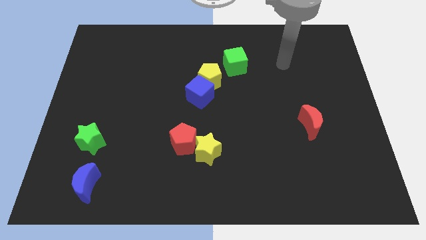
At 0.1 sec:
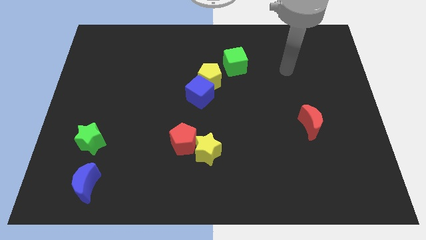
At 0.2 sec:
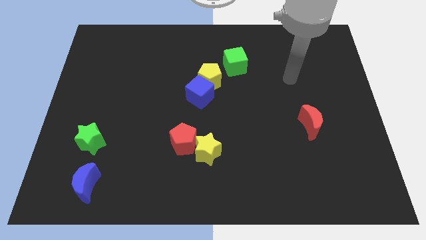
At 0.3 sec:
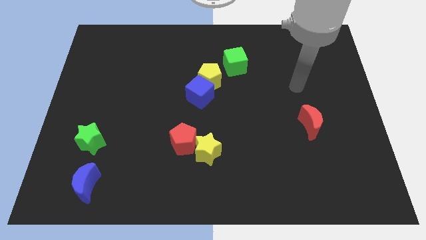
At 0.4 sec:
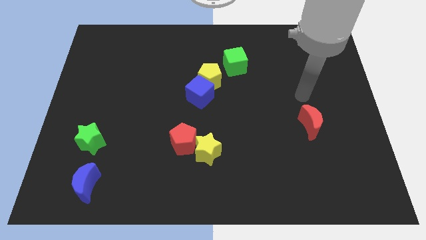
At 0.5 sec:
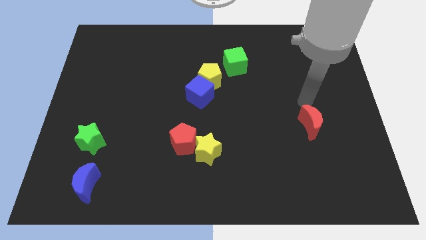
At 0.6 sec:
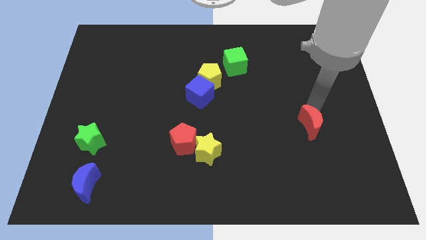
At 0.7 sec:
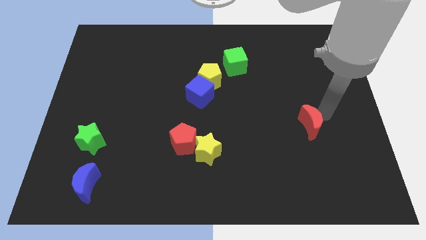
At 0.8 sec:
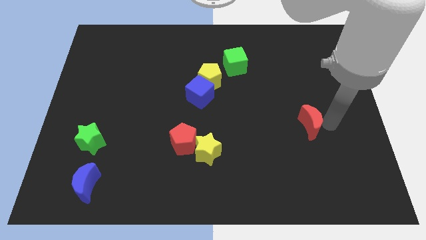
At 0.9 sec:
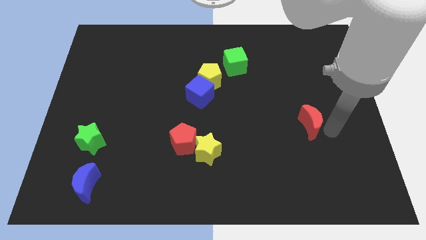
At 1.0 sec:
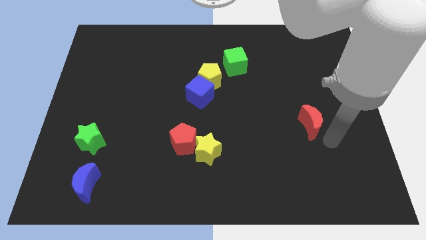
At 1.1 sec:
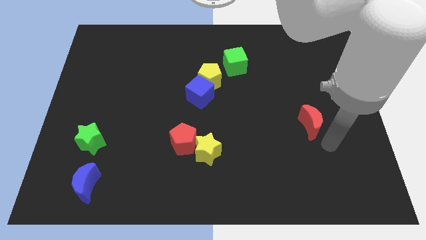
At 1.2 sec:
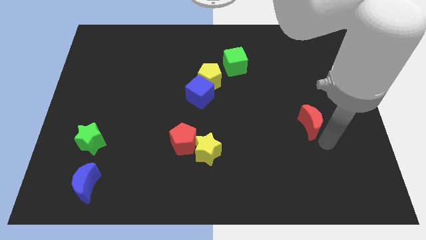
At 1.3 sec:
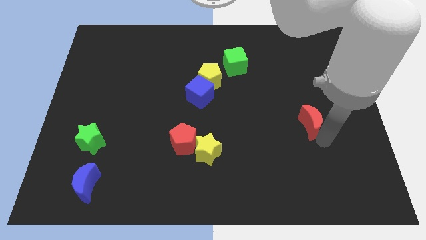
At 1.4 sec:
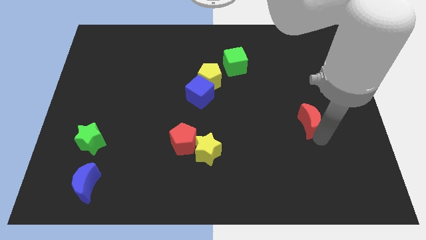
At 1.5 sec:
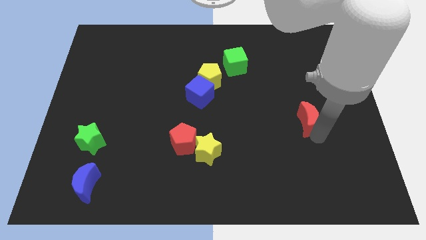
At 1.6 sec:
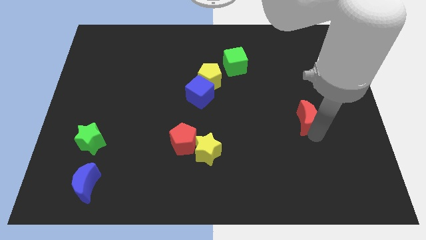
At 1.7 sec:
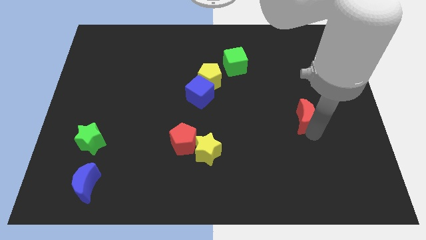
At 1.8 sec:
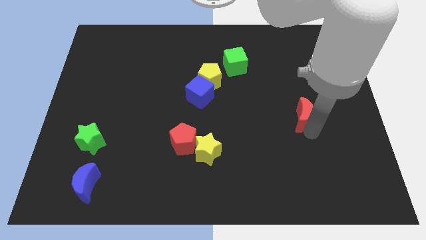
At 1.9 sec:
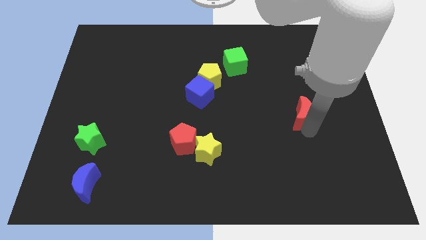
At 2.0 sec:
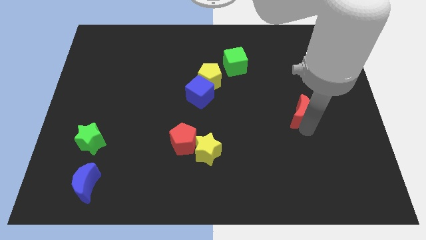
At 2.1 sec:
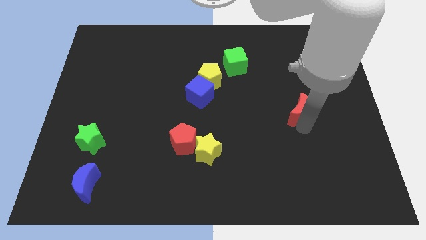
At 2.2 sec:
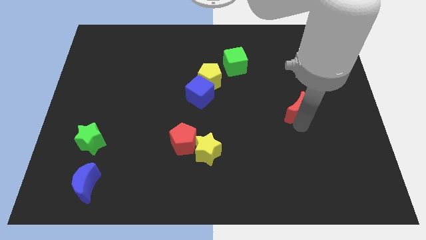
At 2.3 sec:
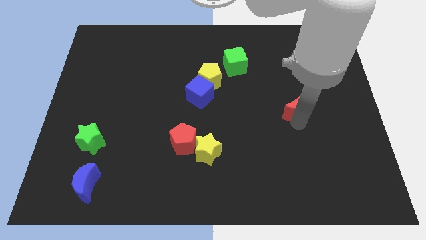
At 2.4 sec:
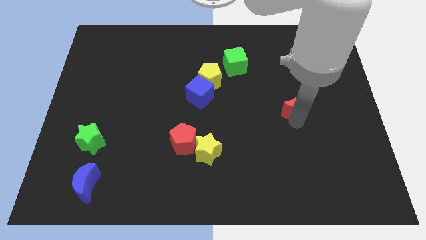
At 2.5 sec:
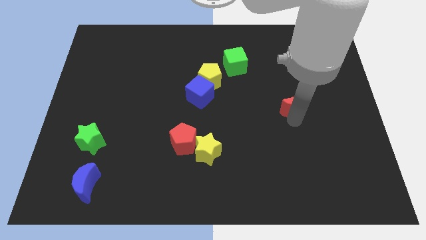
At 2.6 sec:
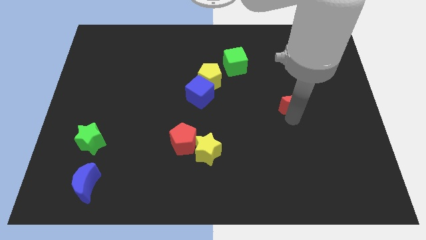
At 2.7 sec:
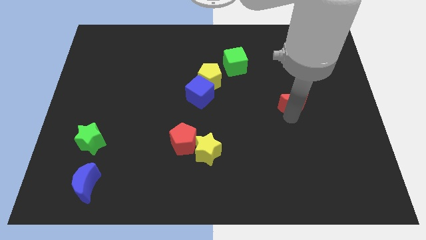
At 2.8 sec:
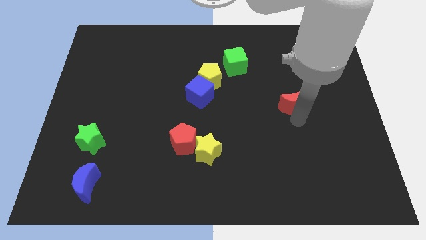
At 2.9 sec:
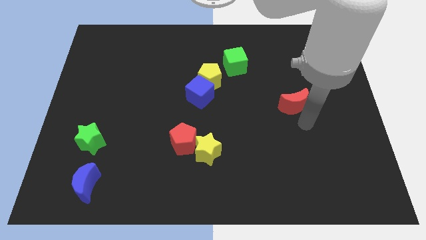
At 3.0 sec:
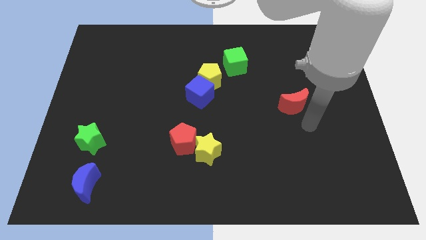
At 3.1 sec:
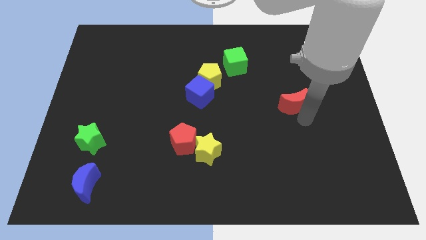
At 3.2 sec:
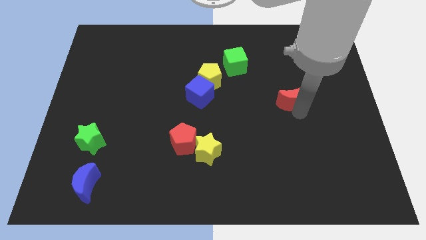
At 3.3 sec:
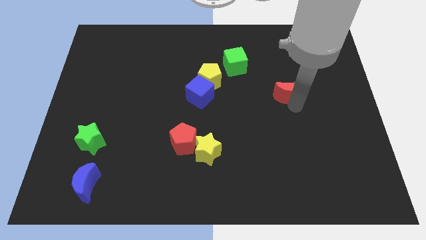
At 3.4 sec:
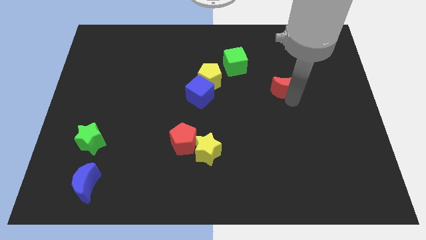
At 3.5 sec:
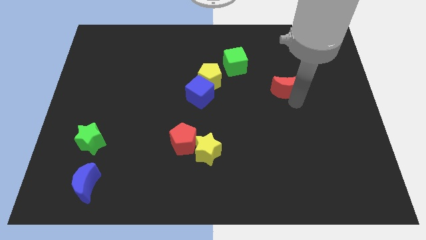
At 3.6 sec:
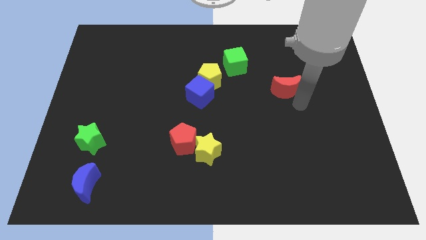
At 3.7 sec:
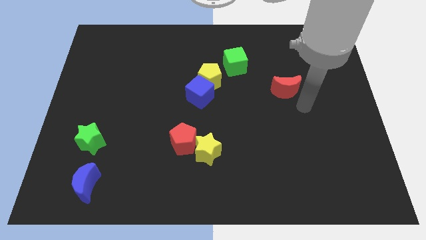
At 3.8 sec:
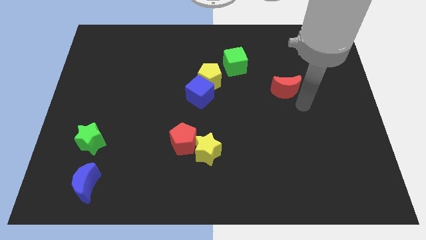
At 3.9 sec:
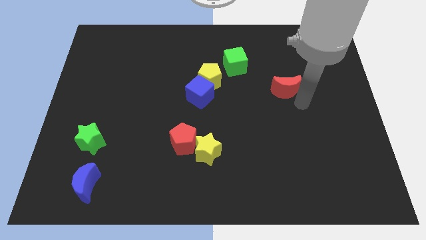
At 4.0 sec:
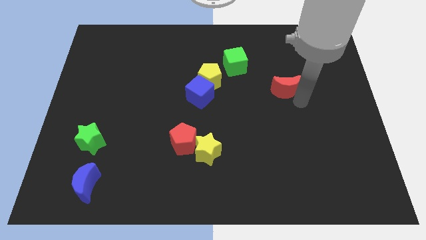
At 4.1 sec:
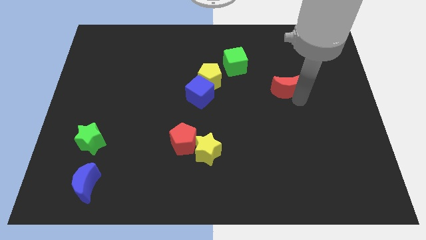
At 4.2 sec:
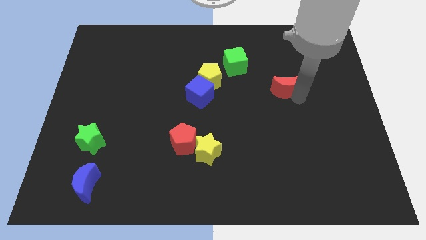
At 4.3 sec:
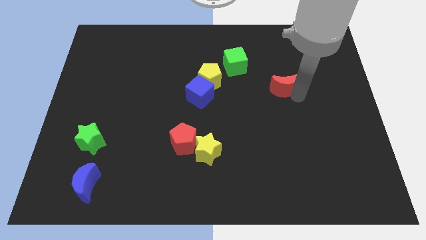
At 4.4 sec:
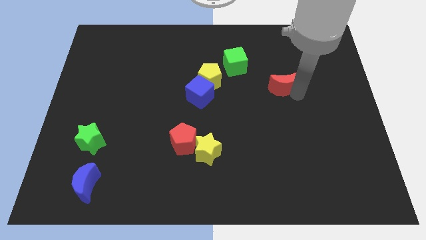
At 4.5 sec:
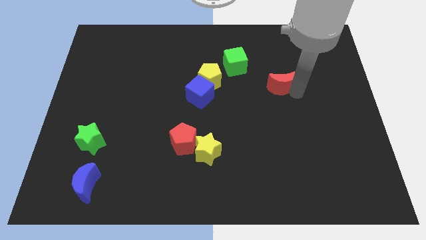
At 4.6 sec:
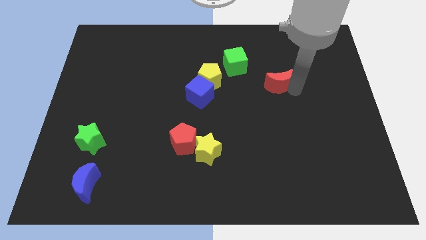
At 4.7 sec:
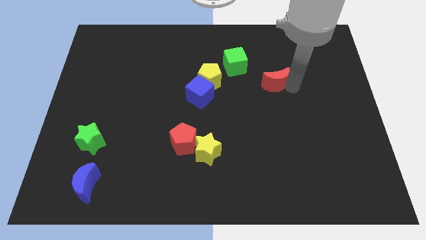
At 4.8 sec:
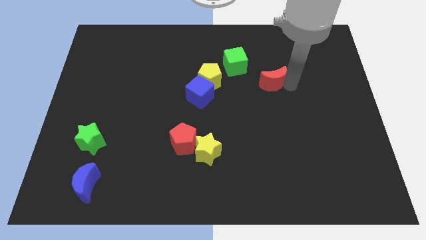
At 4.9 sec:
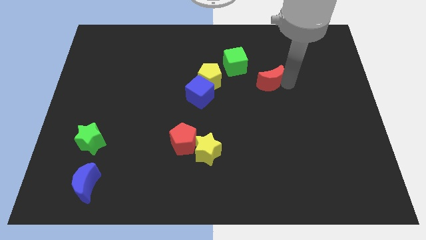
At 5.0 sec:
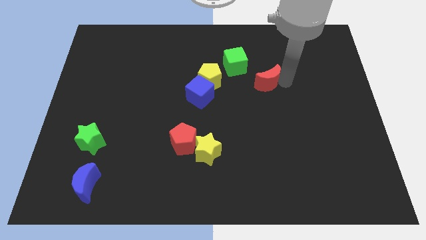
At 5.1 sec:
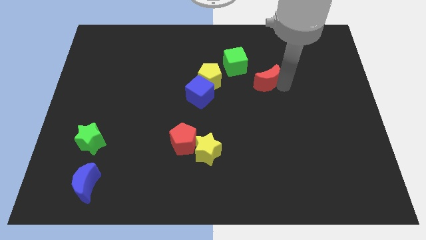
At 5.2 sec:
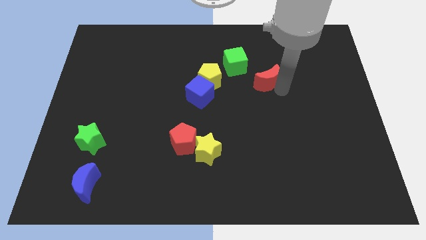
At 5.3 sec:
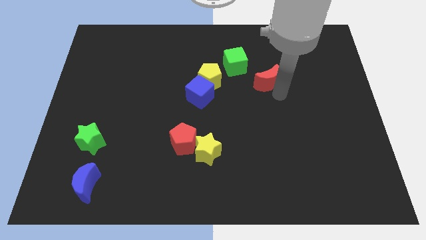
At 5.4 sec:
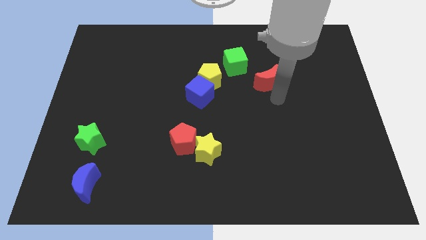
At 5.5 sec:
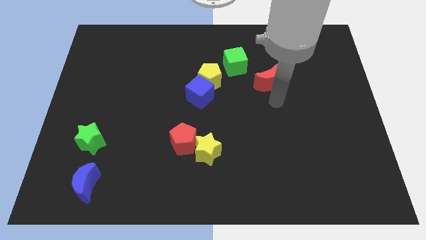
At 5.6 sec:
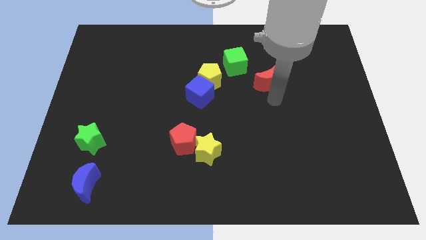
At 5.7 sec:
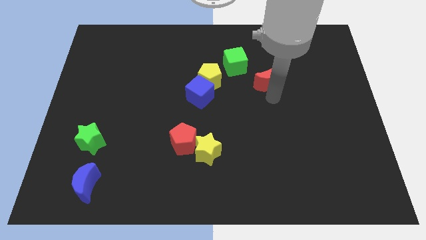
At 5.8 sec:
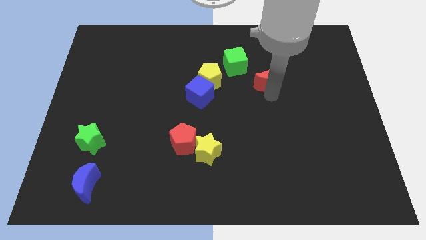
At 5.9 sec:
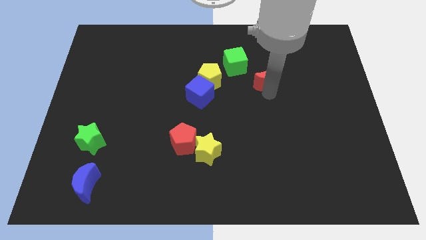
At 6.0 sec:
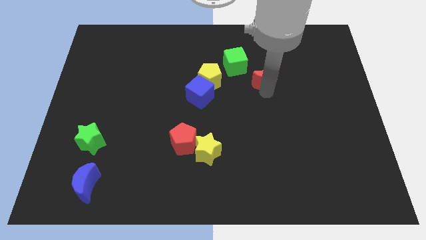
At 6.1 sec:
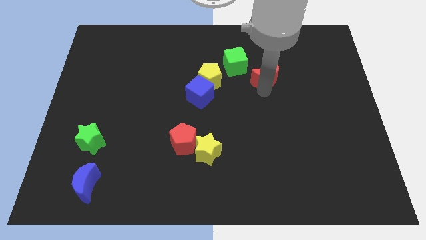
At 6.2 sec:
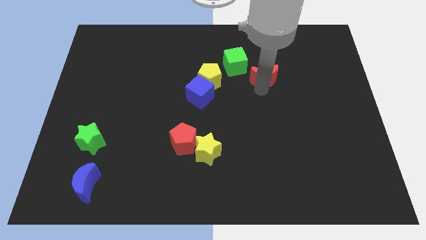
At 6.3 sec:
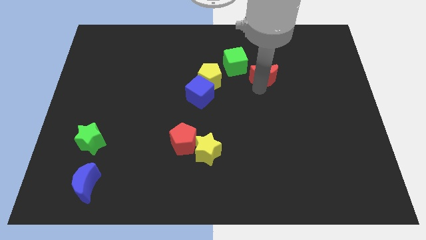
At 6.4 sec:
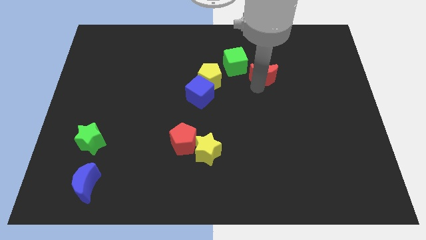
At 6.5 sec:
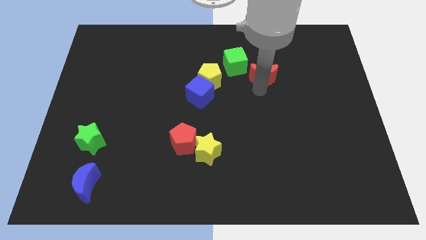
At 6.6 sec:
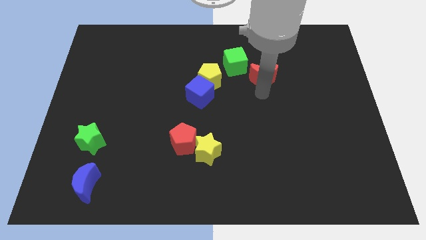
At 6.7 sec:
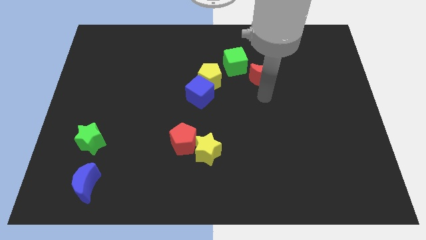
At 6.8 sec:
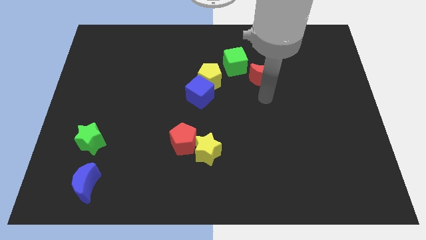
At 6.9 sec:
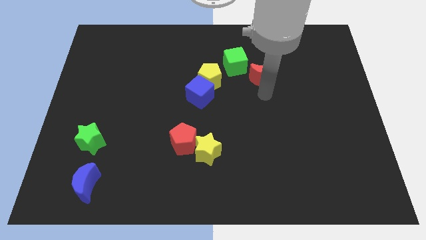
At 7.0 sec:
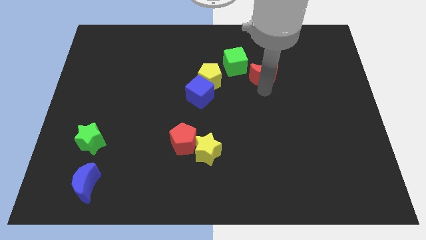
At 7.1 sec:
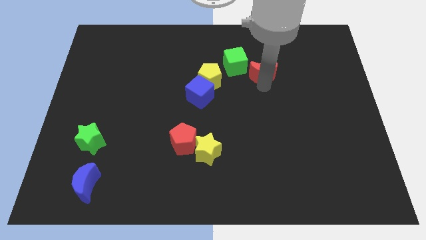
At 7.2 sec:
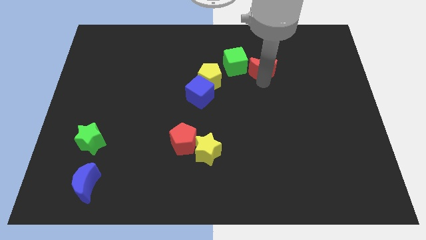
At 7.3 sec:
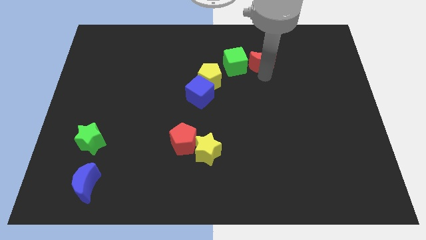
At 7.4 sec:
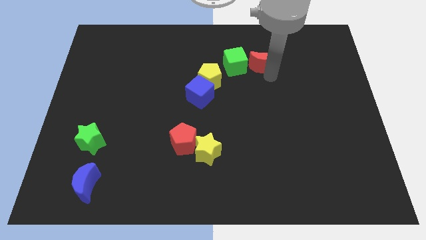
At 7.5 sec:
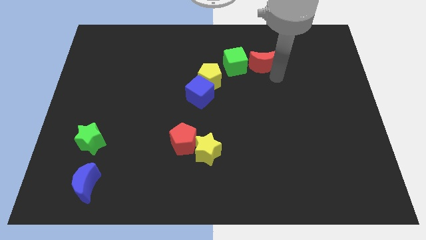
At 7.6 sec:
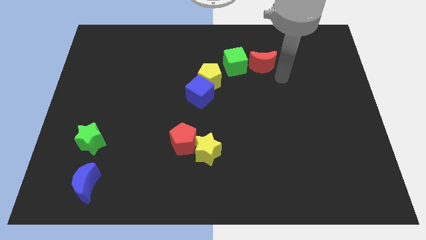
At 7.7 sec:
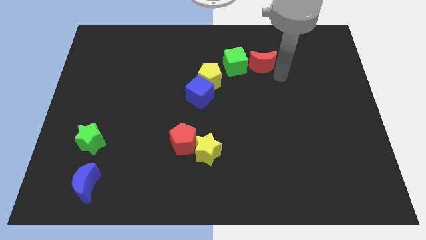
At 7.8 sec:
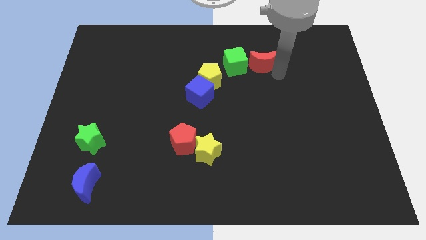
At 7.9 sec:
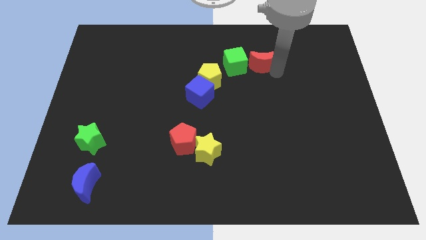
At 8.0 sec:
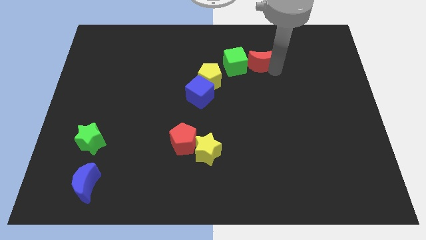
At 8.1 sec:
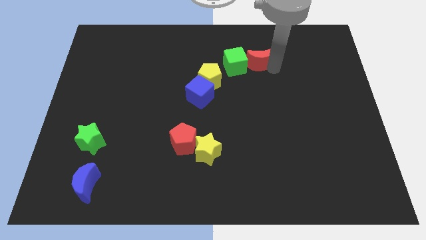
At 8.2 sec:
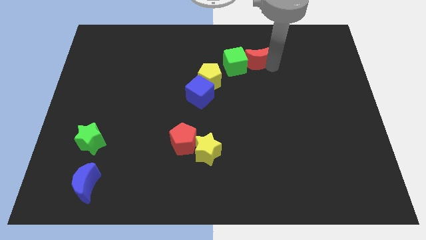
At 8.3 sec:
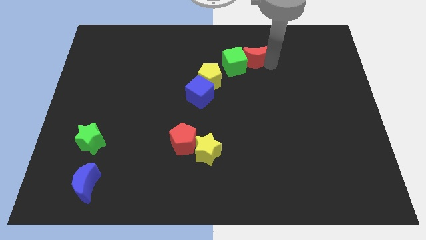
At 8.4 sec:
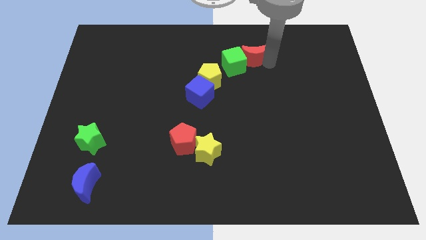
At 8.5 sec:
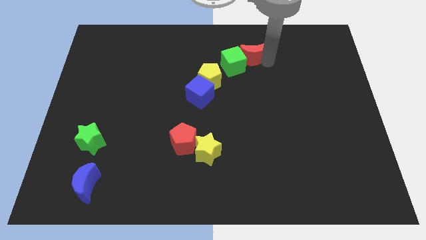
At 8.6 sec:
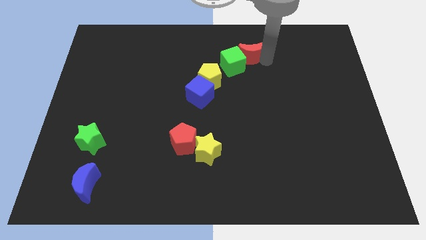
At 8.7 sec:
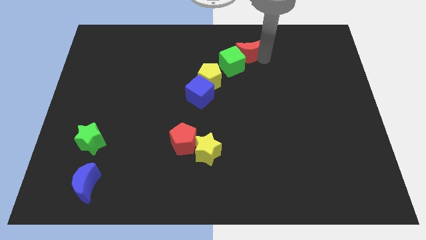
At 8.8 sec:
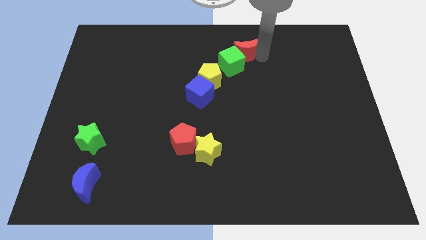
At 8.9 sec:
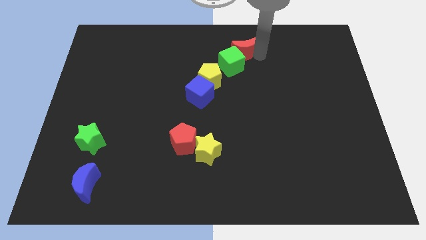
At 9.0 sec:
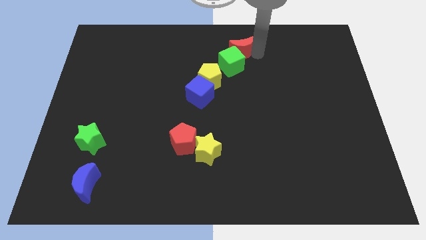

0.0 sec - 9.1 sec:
slide the red moon to the top
